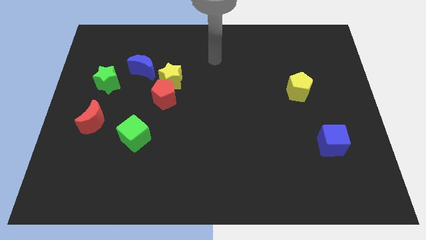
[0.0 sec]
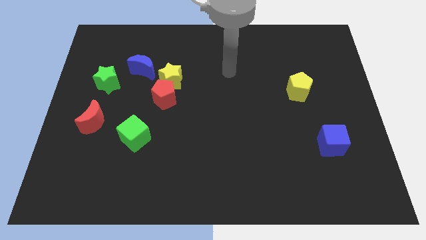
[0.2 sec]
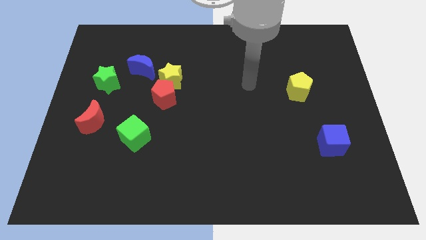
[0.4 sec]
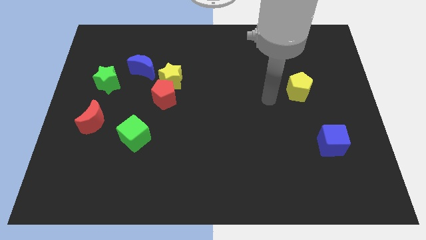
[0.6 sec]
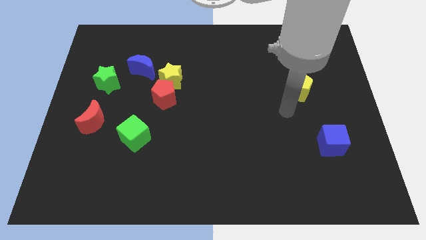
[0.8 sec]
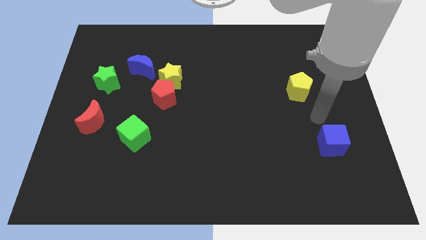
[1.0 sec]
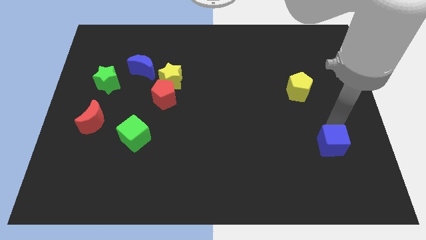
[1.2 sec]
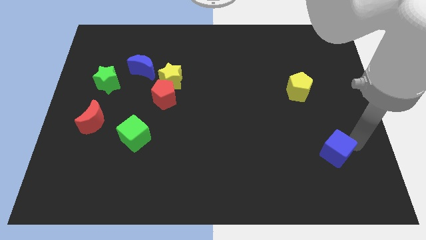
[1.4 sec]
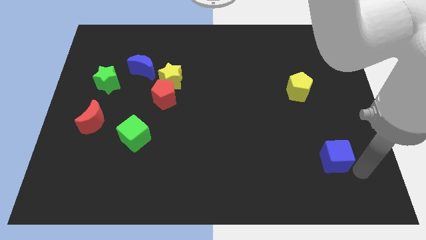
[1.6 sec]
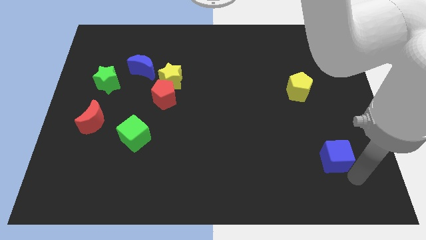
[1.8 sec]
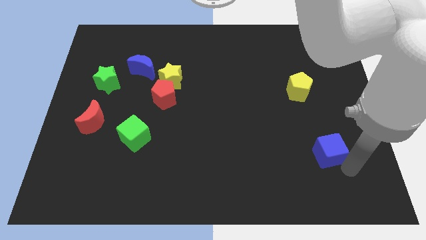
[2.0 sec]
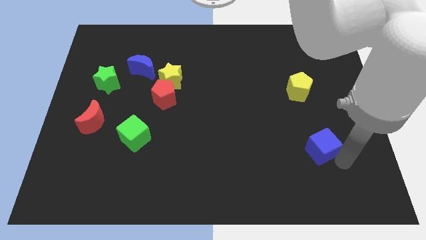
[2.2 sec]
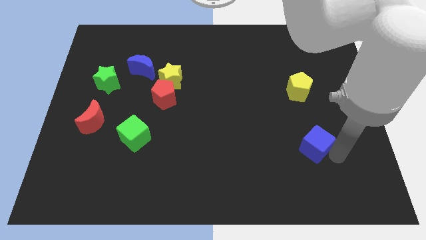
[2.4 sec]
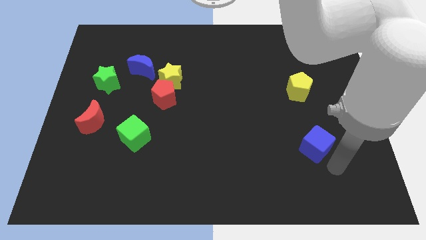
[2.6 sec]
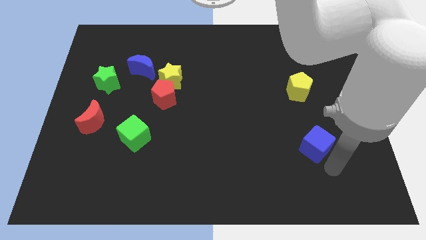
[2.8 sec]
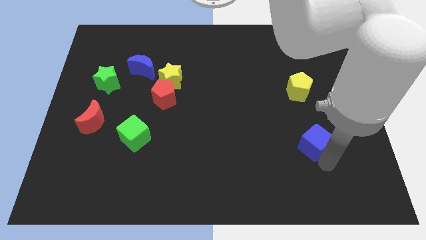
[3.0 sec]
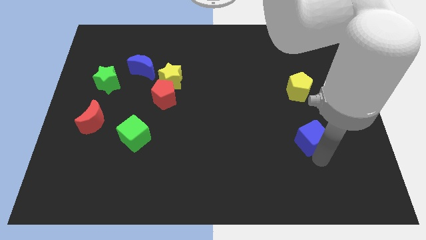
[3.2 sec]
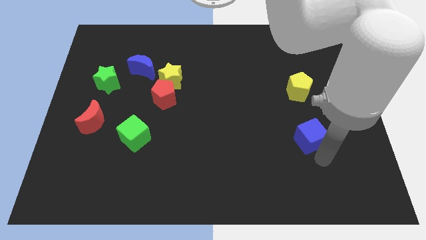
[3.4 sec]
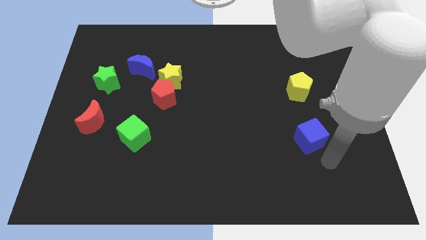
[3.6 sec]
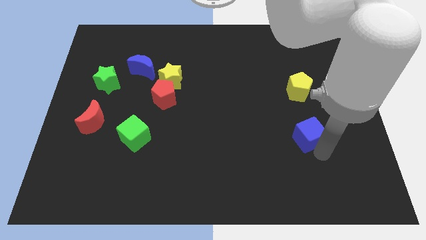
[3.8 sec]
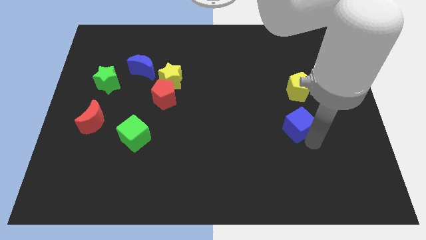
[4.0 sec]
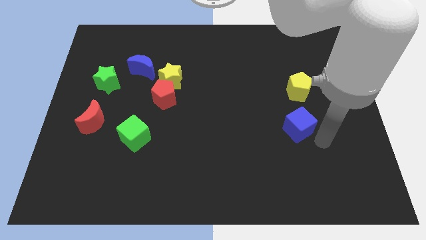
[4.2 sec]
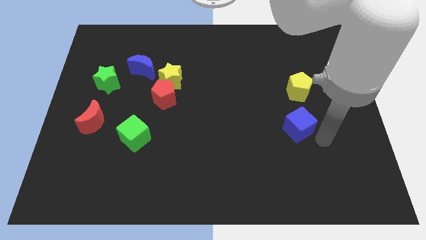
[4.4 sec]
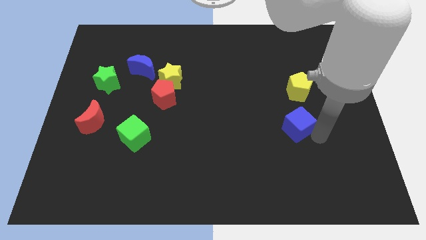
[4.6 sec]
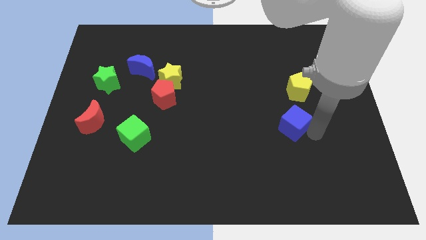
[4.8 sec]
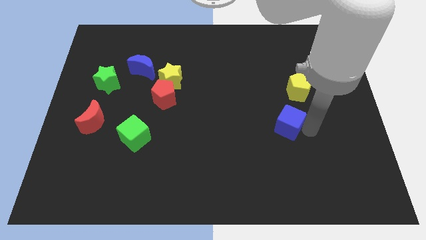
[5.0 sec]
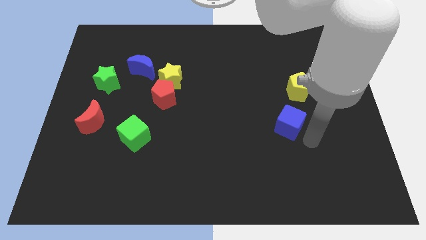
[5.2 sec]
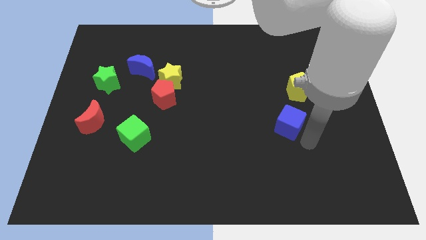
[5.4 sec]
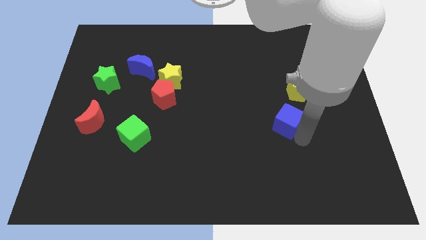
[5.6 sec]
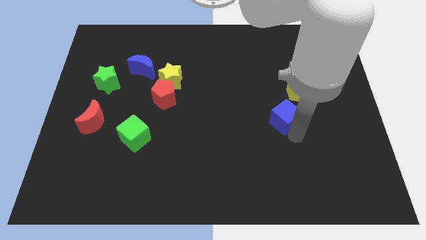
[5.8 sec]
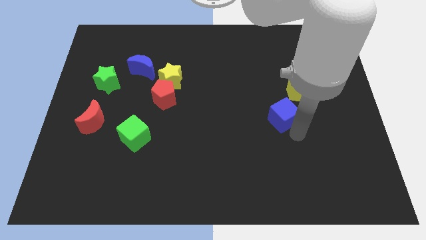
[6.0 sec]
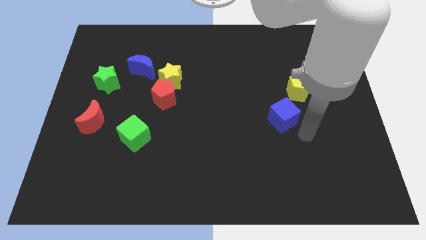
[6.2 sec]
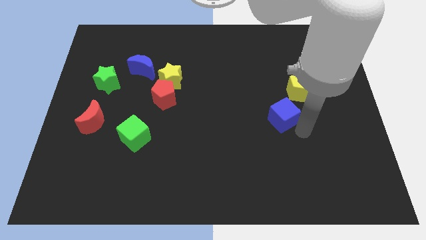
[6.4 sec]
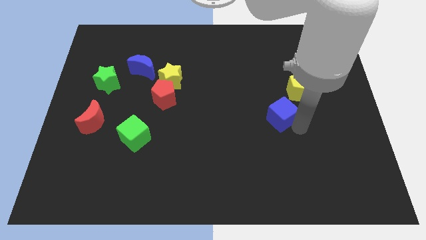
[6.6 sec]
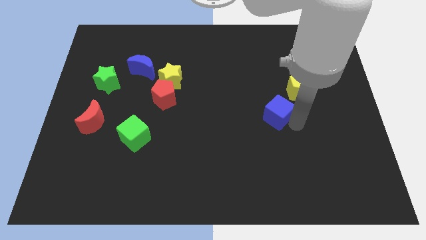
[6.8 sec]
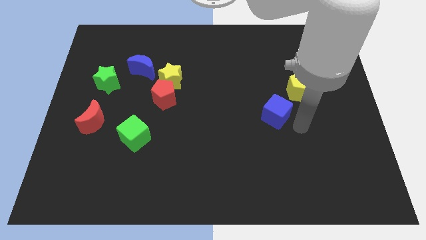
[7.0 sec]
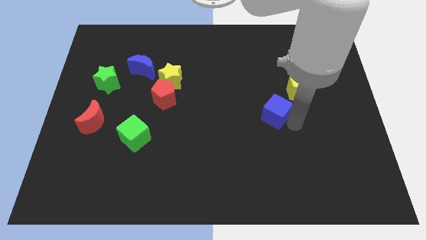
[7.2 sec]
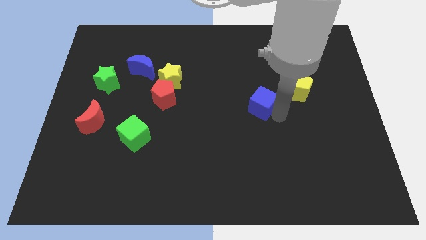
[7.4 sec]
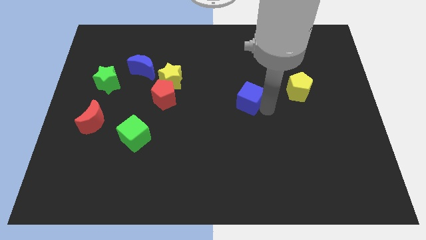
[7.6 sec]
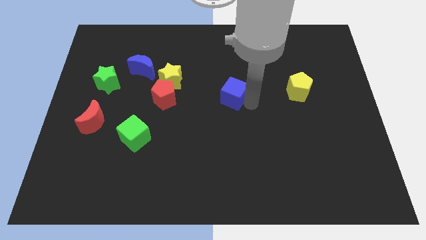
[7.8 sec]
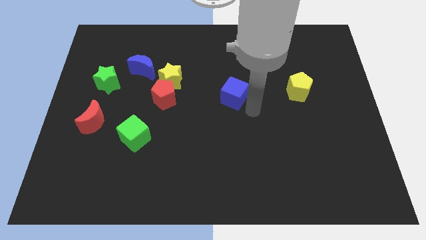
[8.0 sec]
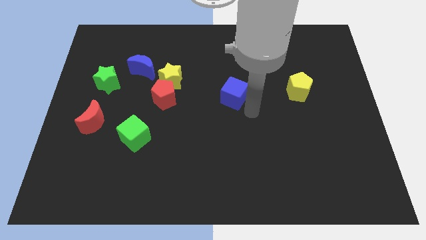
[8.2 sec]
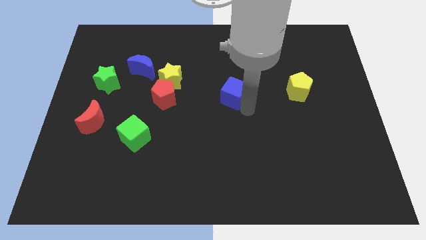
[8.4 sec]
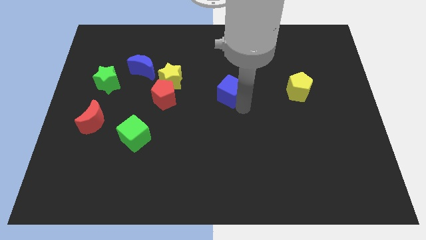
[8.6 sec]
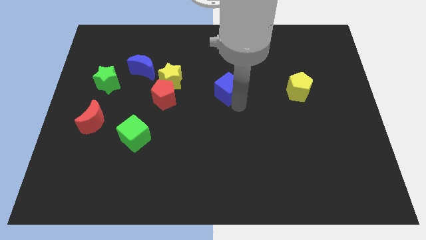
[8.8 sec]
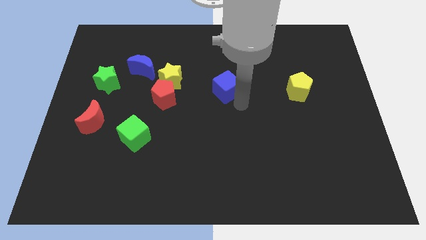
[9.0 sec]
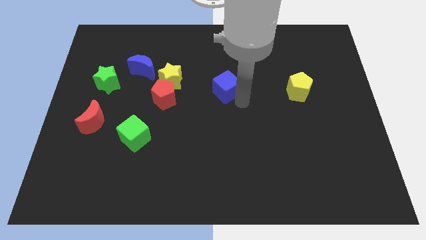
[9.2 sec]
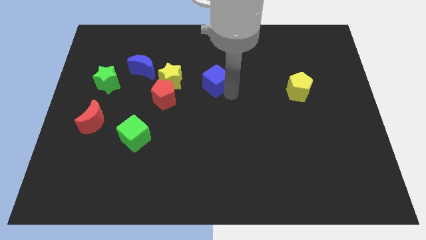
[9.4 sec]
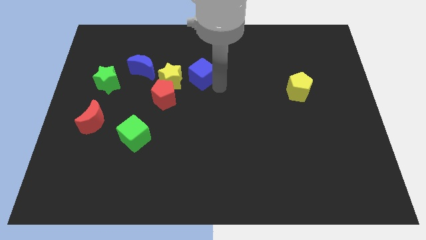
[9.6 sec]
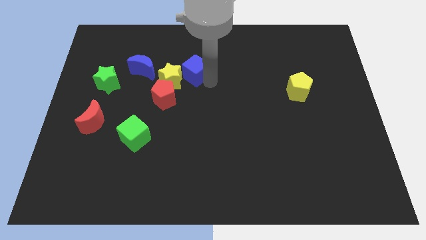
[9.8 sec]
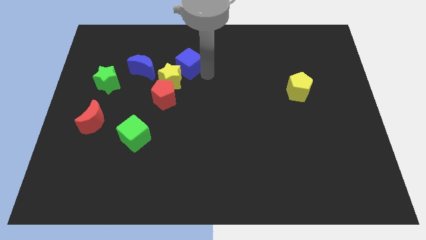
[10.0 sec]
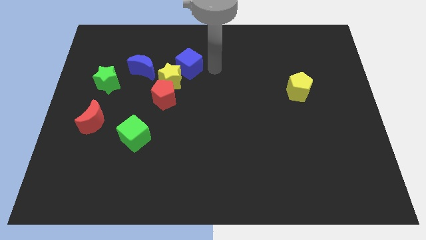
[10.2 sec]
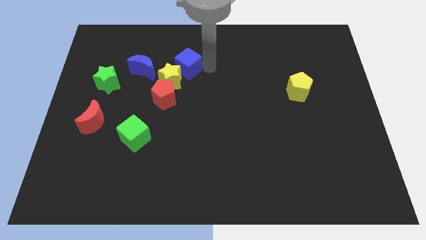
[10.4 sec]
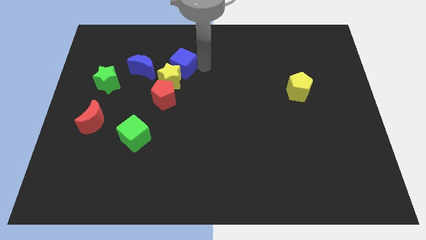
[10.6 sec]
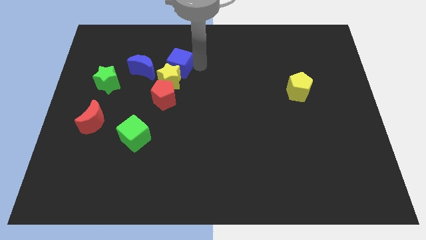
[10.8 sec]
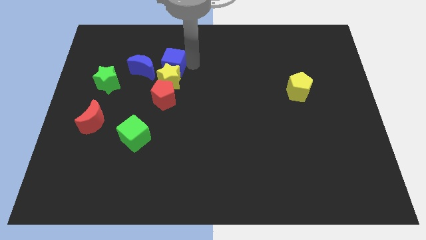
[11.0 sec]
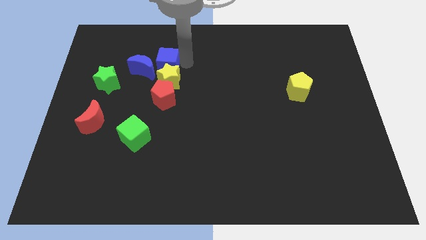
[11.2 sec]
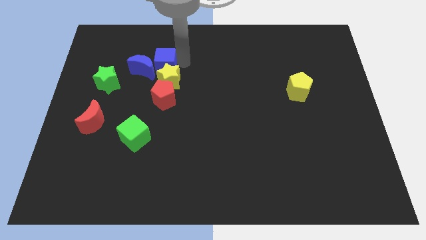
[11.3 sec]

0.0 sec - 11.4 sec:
move the blue cube towards the blue moon

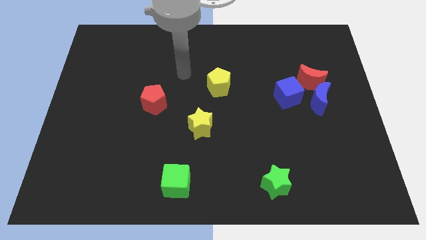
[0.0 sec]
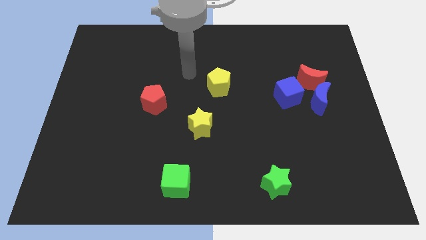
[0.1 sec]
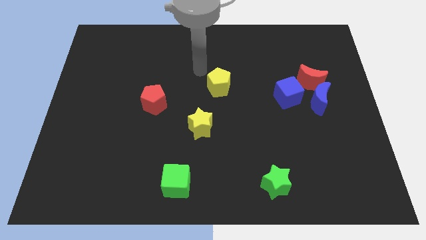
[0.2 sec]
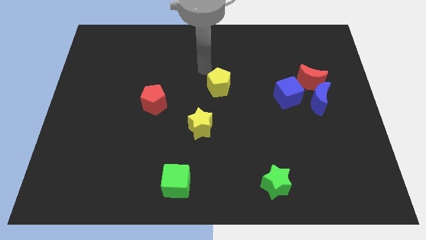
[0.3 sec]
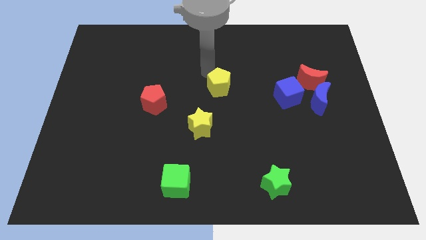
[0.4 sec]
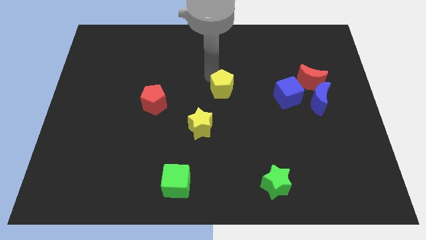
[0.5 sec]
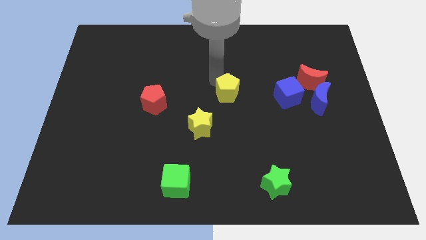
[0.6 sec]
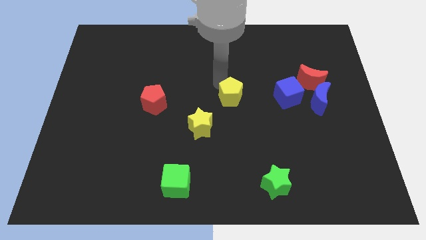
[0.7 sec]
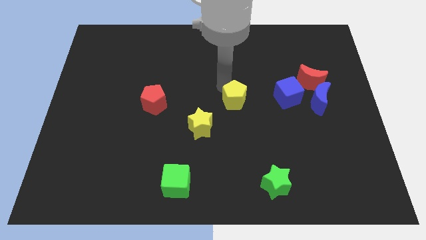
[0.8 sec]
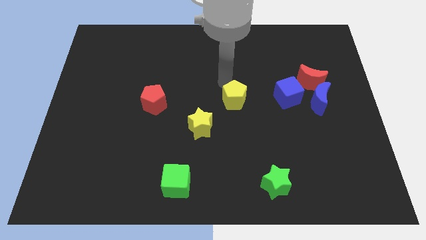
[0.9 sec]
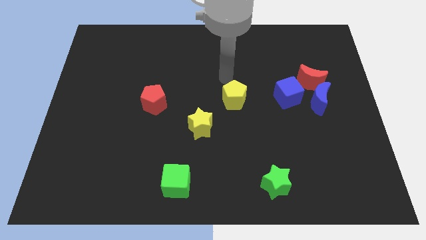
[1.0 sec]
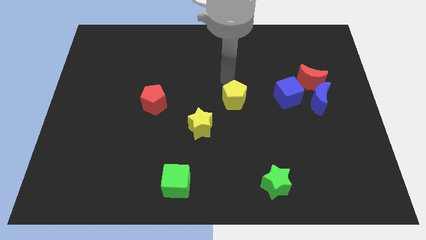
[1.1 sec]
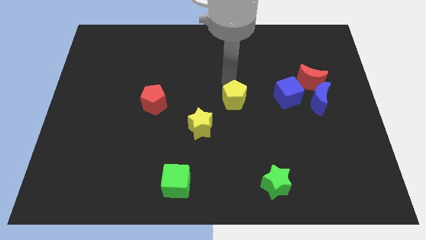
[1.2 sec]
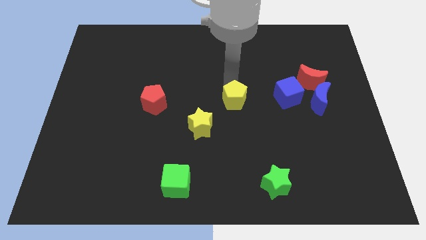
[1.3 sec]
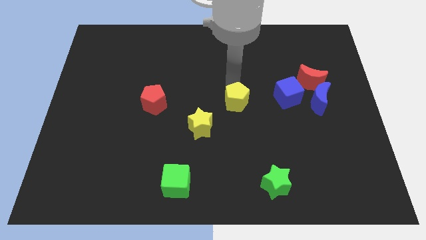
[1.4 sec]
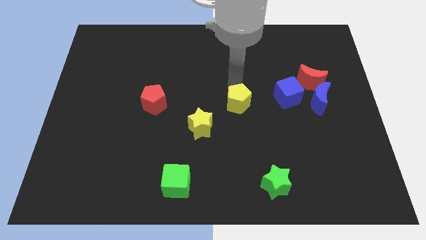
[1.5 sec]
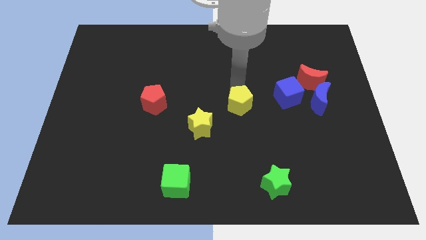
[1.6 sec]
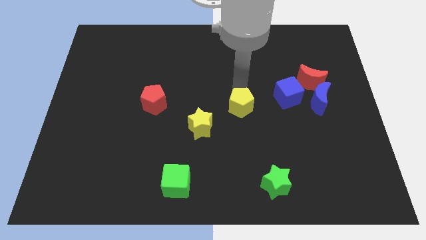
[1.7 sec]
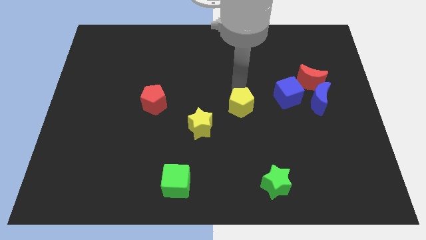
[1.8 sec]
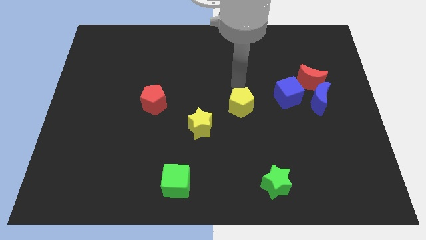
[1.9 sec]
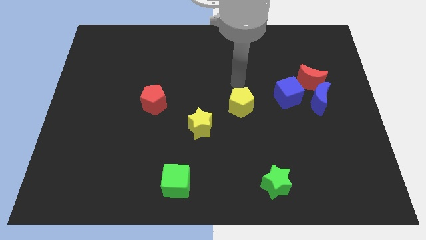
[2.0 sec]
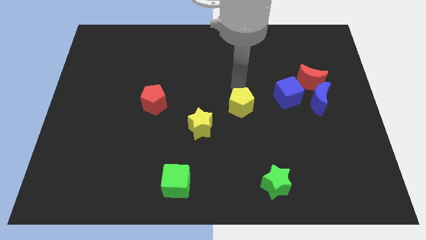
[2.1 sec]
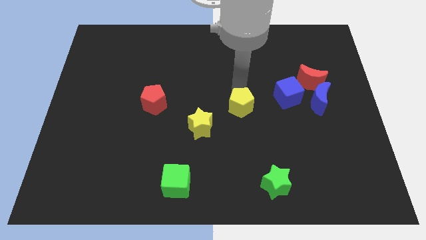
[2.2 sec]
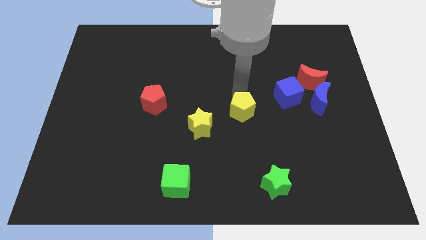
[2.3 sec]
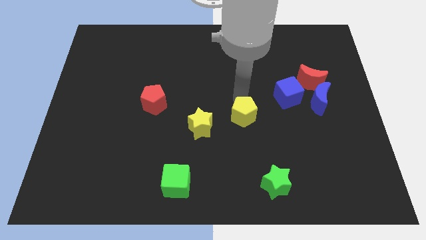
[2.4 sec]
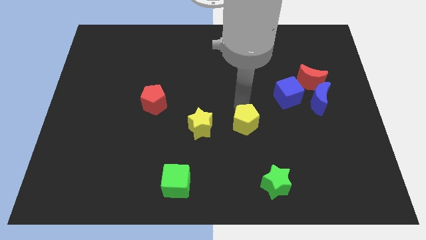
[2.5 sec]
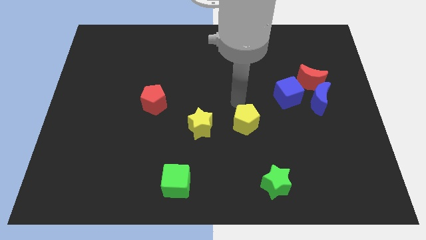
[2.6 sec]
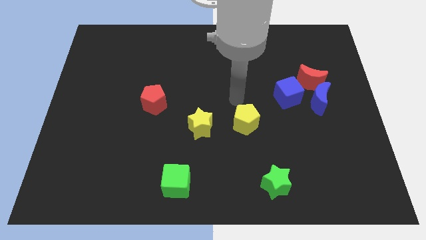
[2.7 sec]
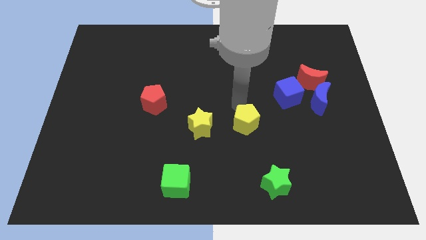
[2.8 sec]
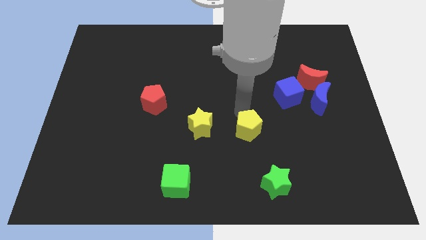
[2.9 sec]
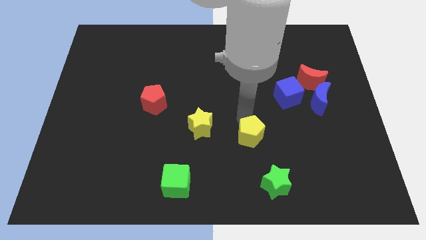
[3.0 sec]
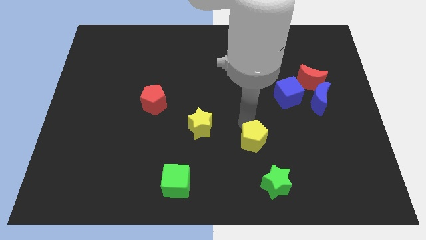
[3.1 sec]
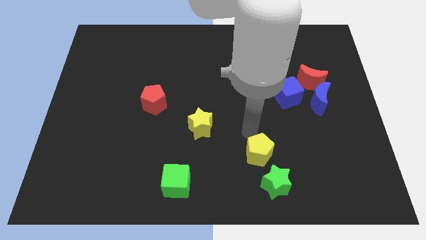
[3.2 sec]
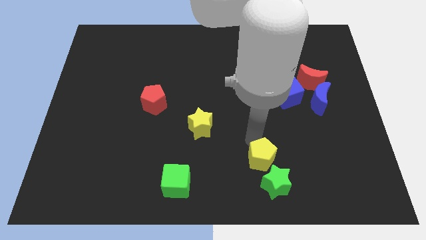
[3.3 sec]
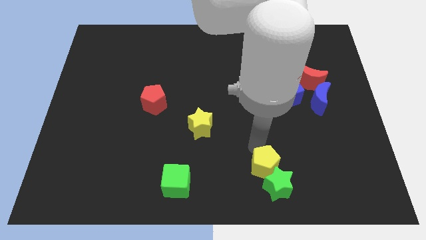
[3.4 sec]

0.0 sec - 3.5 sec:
move the yellow pentagon next to the green star
